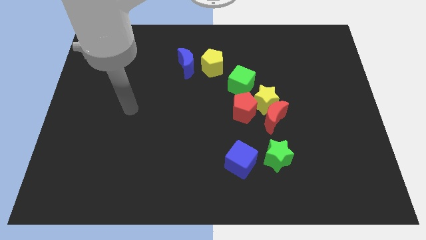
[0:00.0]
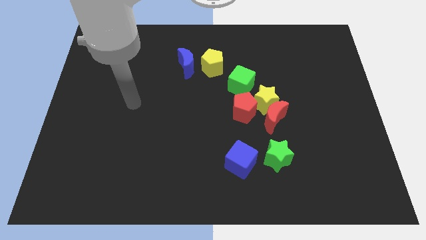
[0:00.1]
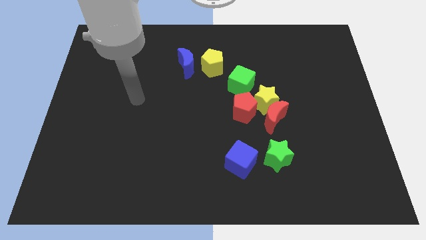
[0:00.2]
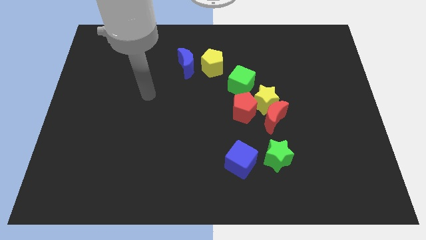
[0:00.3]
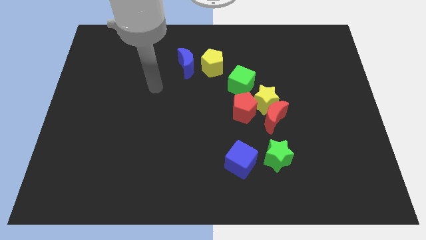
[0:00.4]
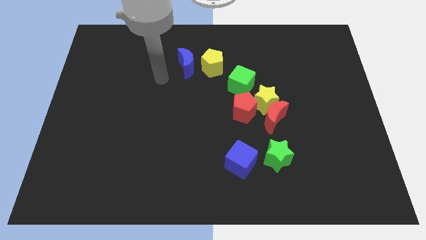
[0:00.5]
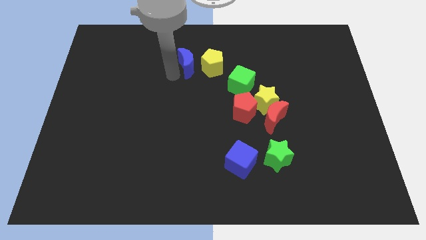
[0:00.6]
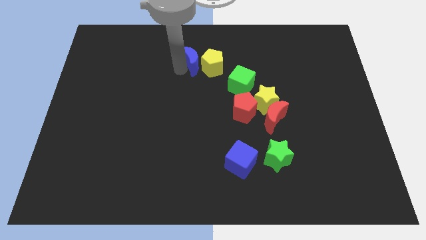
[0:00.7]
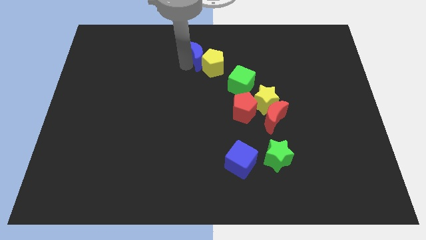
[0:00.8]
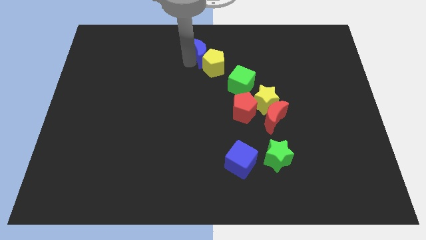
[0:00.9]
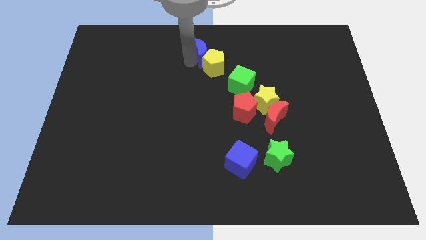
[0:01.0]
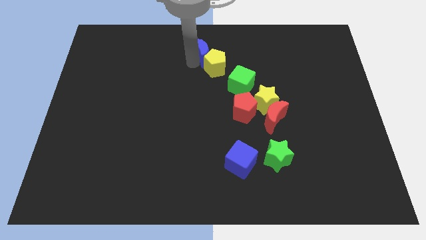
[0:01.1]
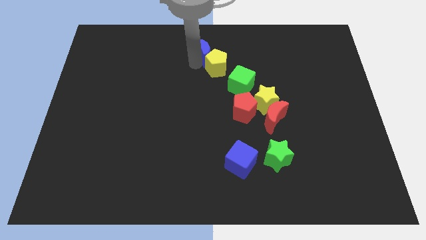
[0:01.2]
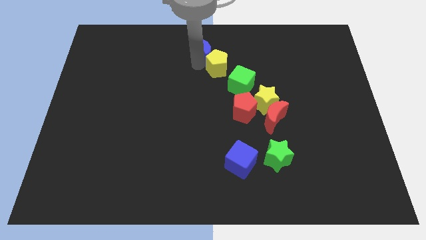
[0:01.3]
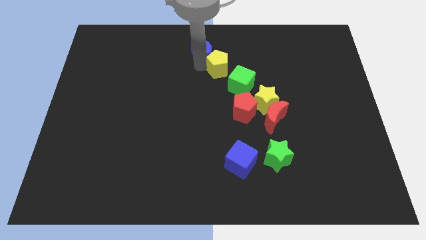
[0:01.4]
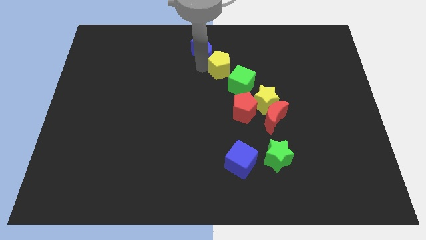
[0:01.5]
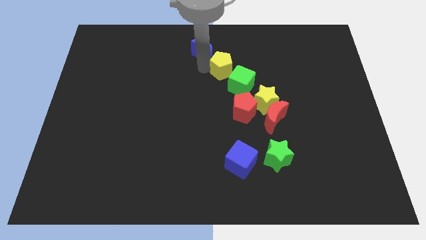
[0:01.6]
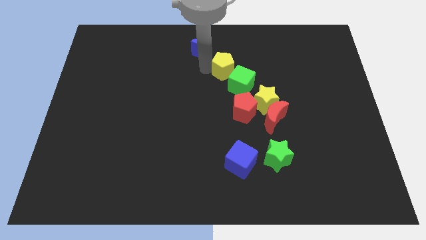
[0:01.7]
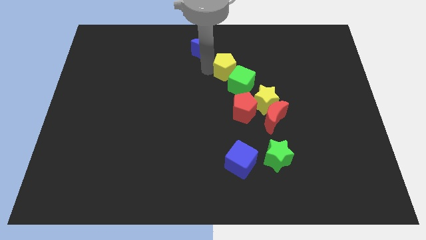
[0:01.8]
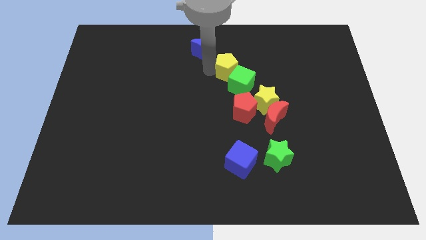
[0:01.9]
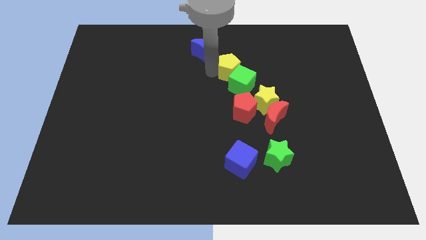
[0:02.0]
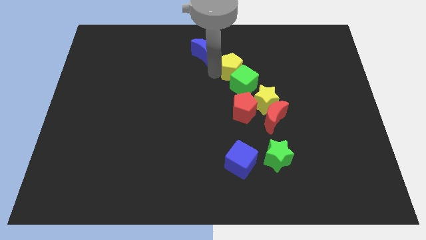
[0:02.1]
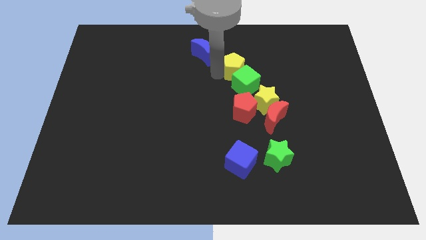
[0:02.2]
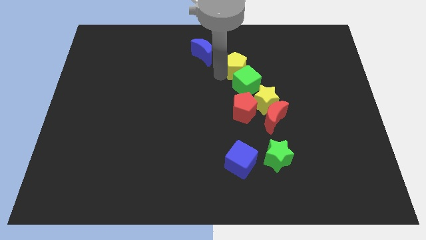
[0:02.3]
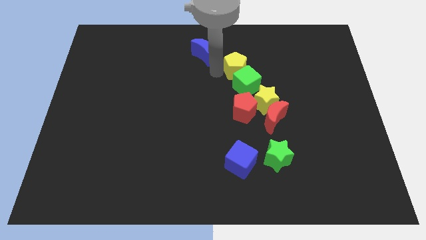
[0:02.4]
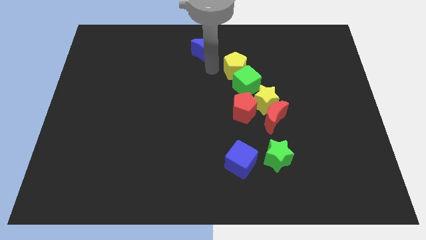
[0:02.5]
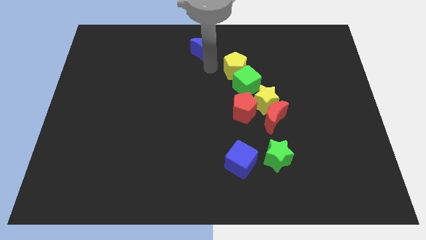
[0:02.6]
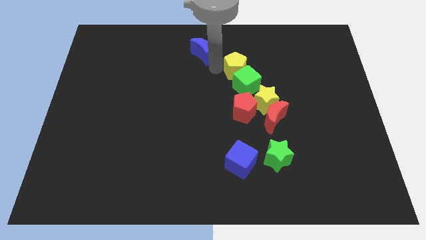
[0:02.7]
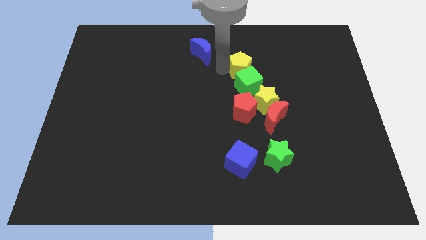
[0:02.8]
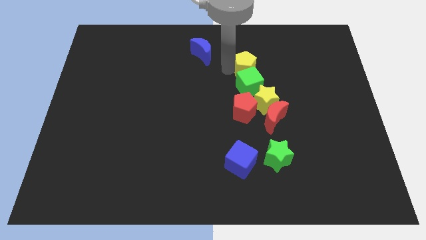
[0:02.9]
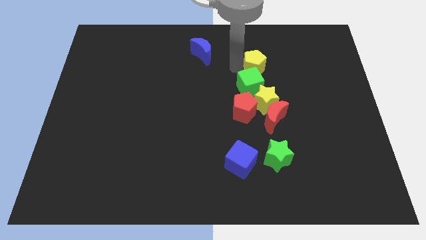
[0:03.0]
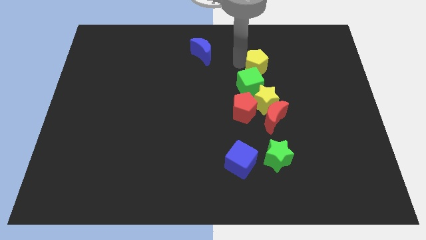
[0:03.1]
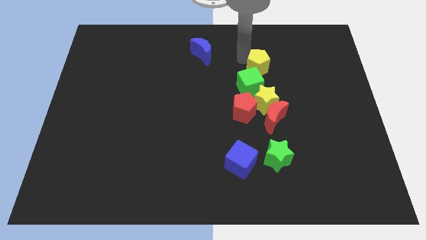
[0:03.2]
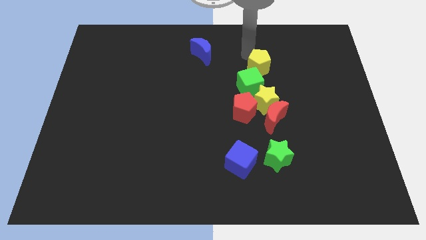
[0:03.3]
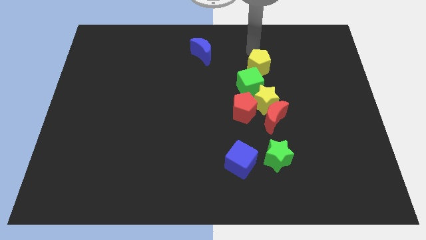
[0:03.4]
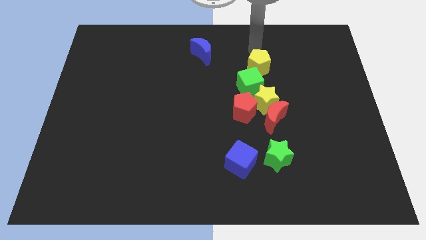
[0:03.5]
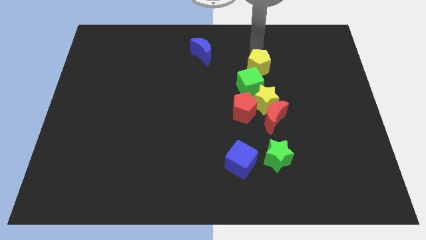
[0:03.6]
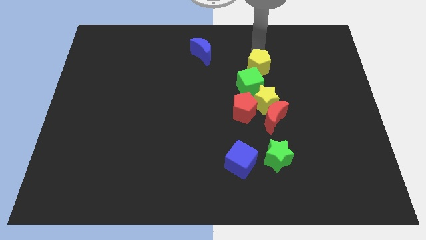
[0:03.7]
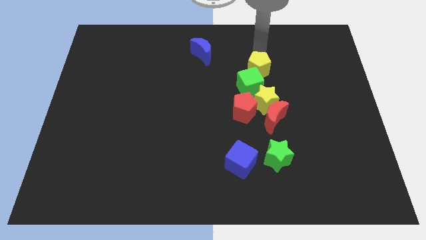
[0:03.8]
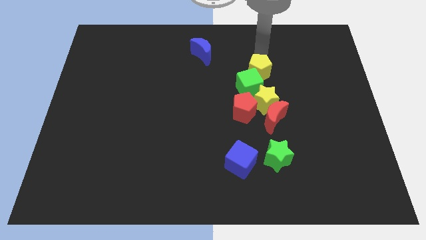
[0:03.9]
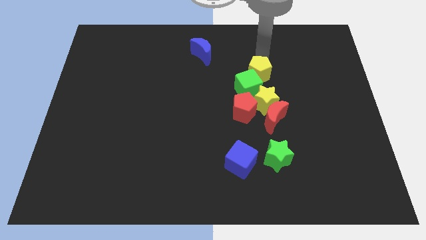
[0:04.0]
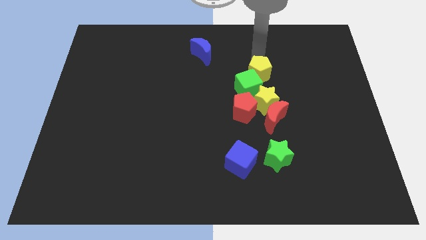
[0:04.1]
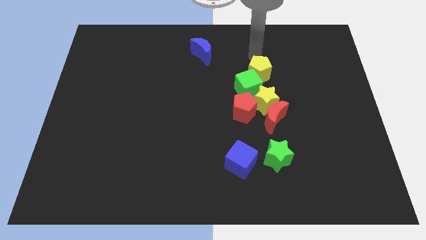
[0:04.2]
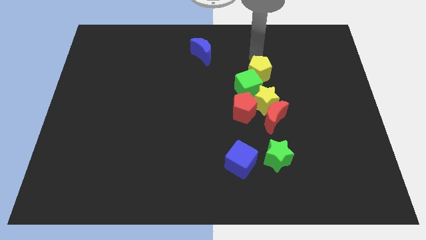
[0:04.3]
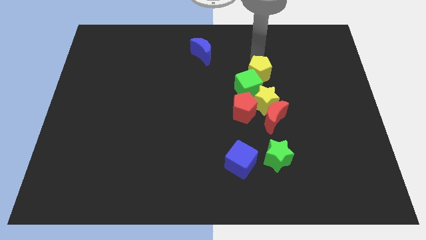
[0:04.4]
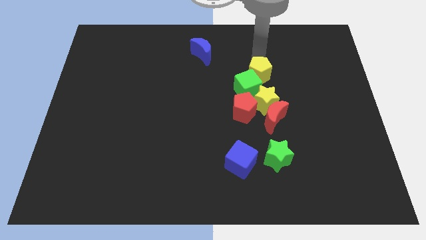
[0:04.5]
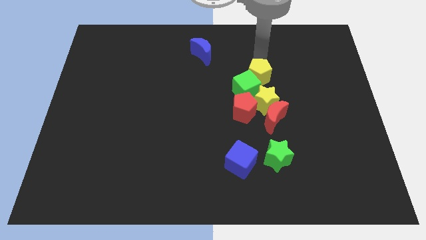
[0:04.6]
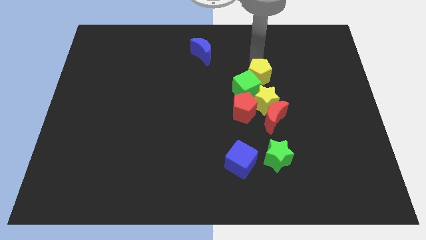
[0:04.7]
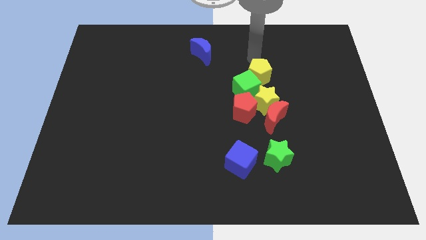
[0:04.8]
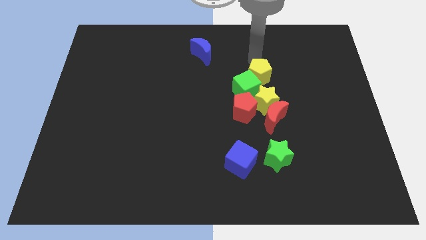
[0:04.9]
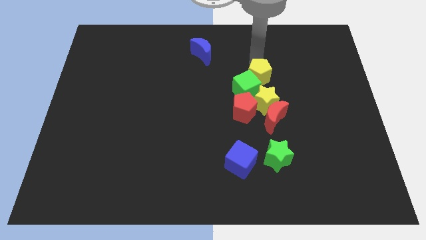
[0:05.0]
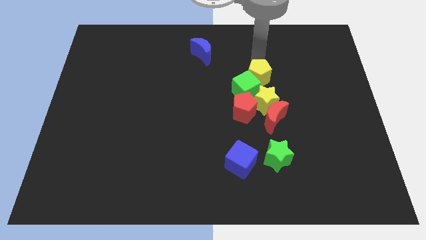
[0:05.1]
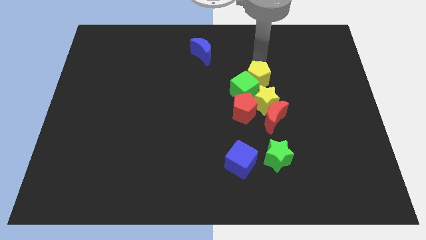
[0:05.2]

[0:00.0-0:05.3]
push the yellow pentagon diagonally up and to the right of the red pentagon

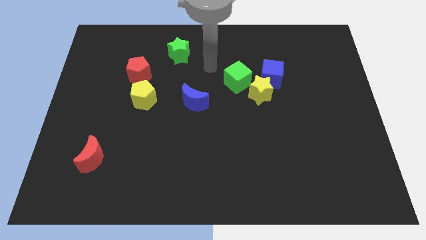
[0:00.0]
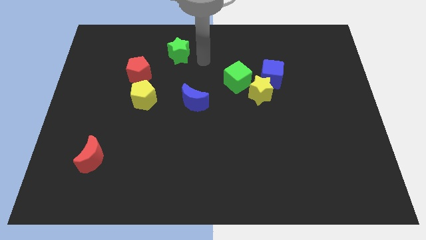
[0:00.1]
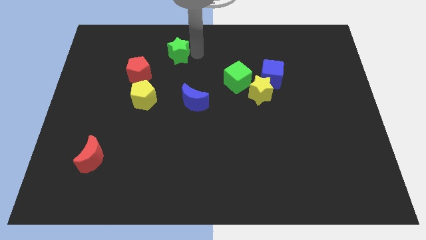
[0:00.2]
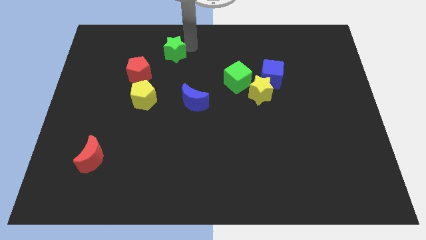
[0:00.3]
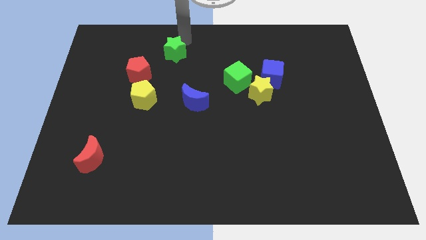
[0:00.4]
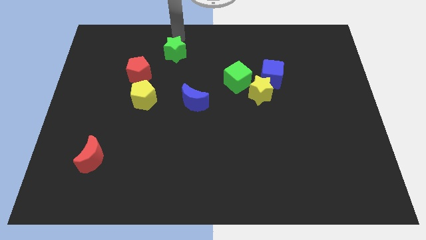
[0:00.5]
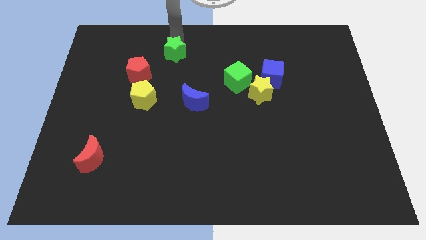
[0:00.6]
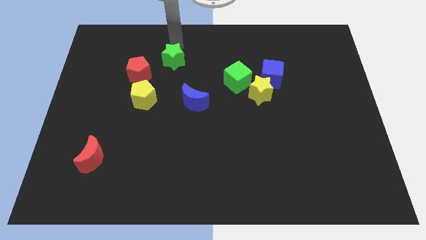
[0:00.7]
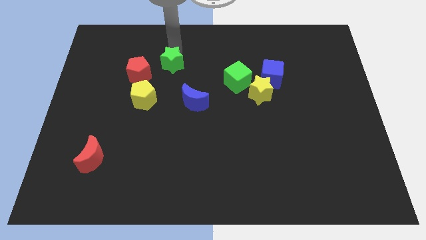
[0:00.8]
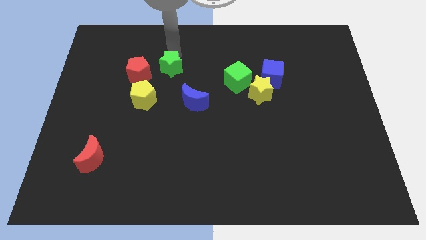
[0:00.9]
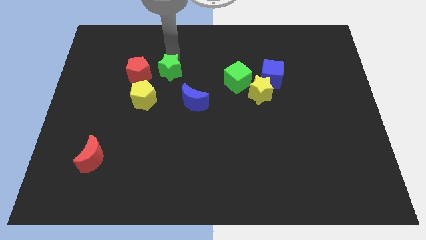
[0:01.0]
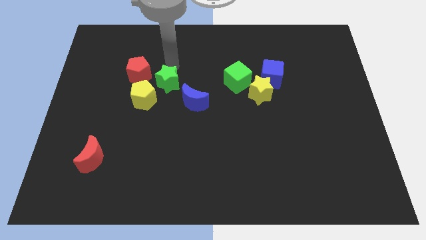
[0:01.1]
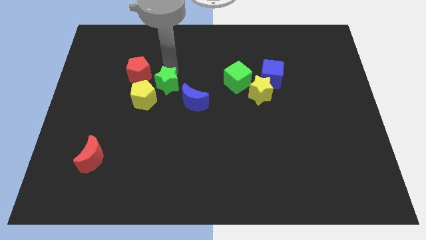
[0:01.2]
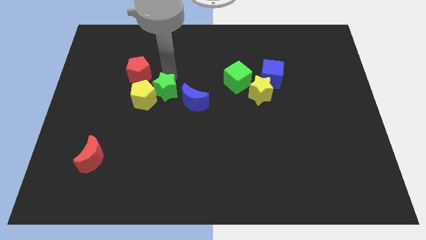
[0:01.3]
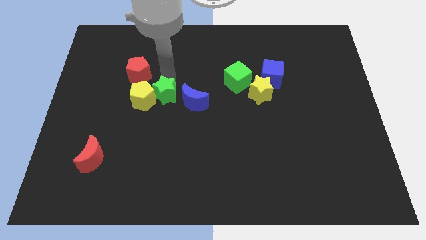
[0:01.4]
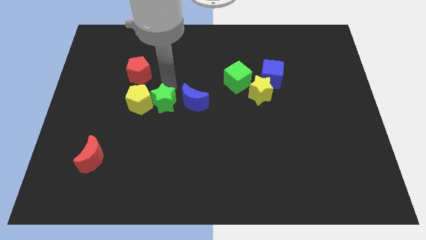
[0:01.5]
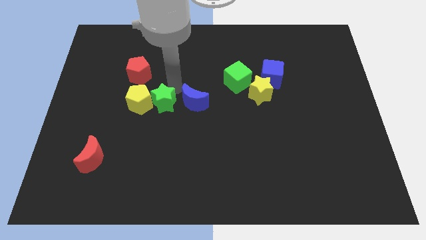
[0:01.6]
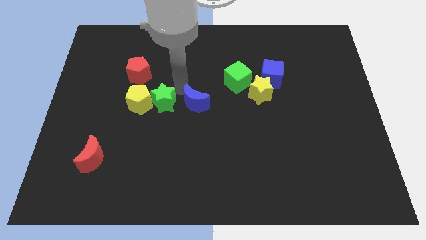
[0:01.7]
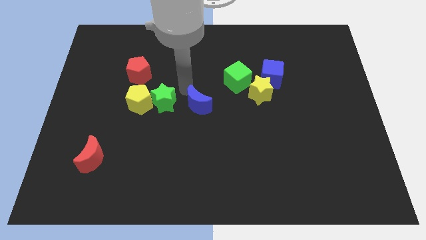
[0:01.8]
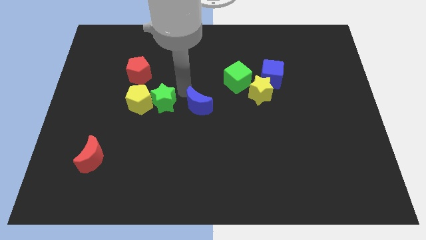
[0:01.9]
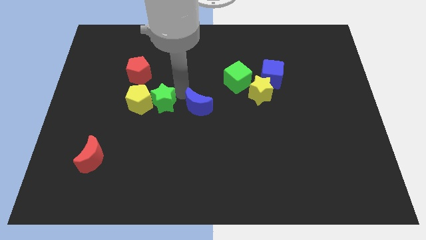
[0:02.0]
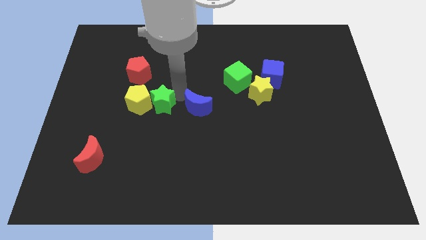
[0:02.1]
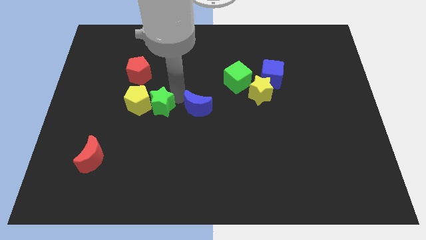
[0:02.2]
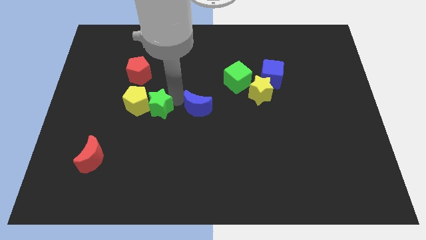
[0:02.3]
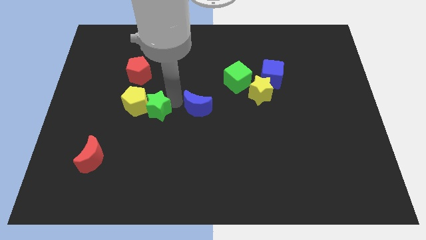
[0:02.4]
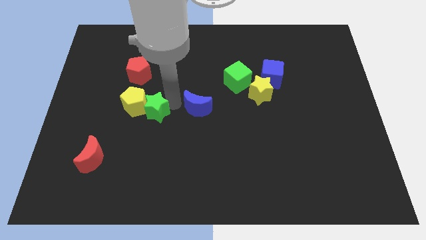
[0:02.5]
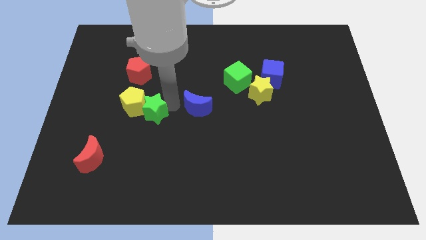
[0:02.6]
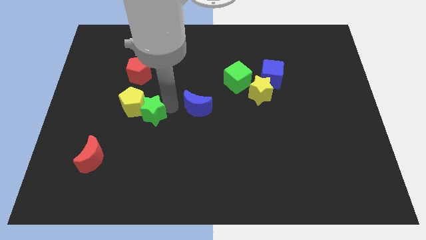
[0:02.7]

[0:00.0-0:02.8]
move the green star below the red pentagon
